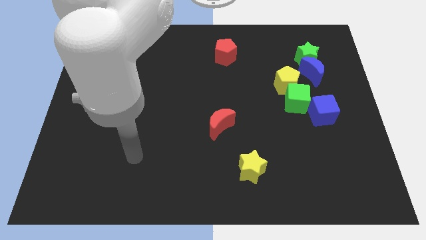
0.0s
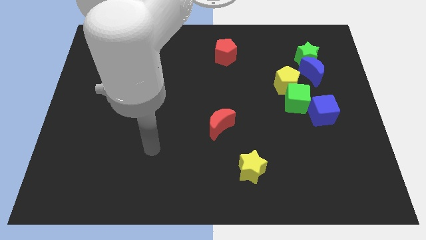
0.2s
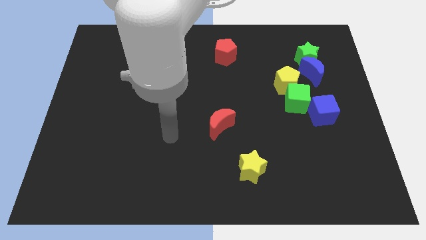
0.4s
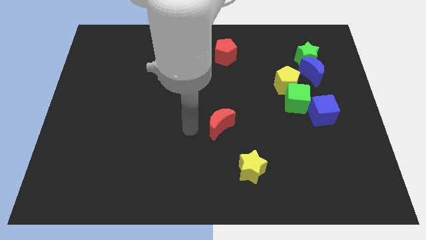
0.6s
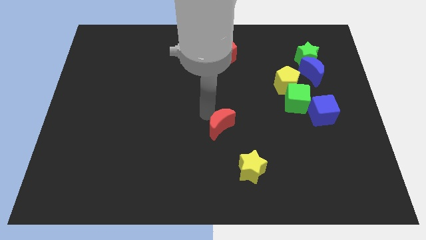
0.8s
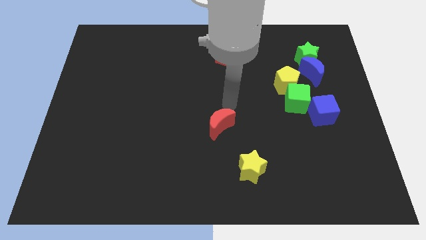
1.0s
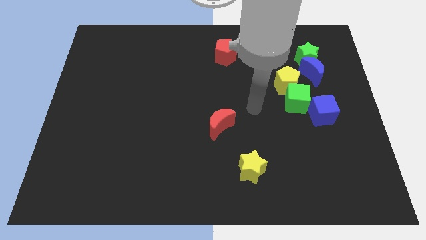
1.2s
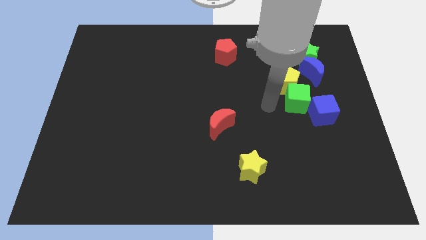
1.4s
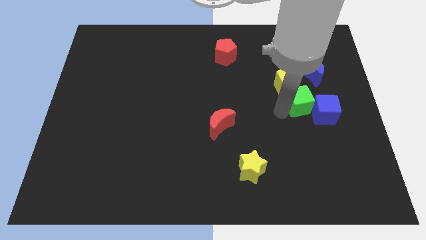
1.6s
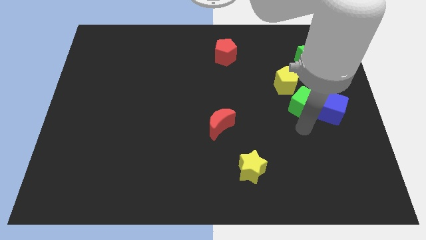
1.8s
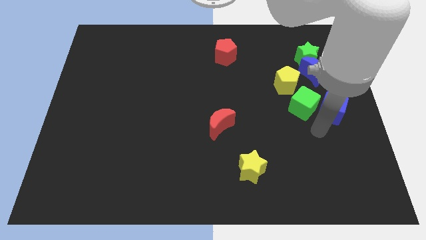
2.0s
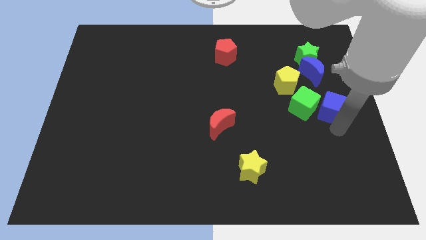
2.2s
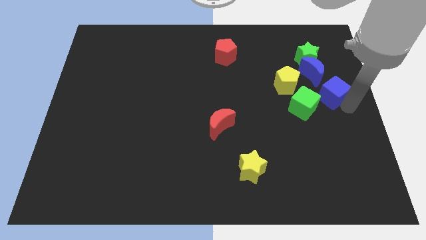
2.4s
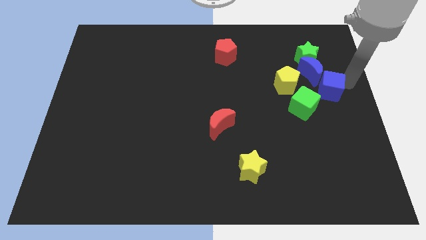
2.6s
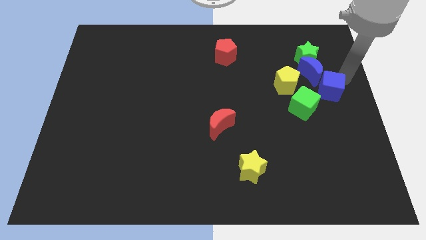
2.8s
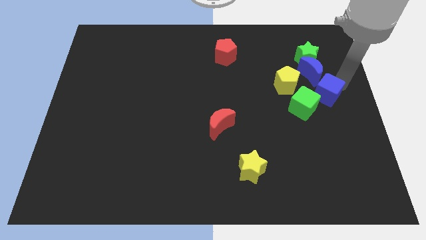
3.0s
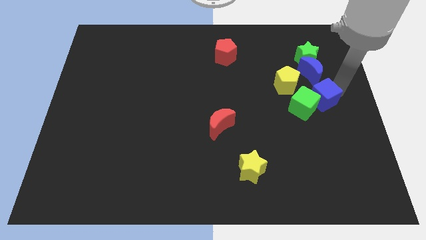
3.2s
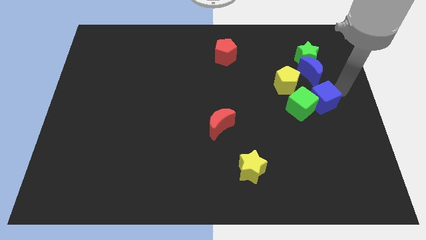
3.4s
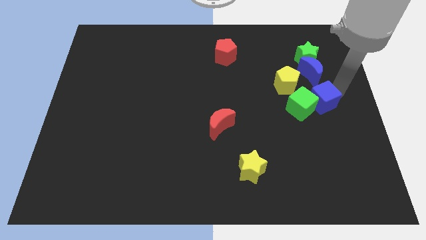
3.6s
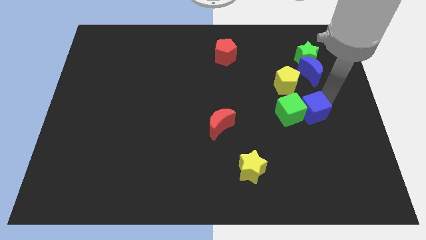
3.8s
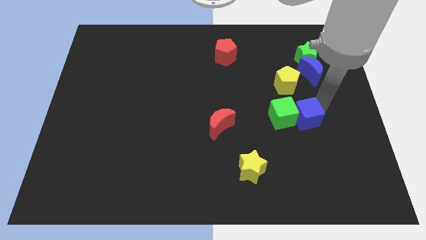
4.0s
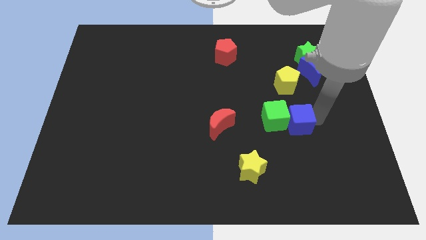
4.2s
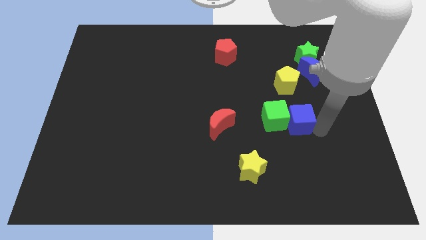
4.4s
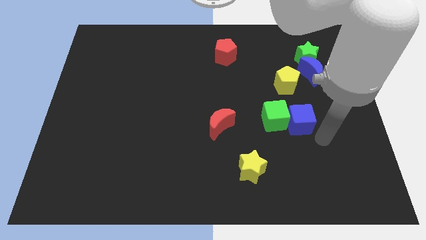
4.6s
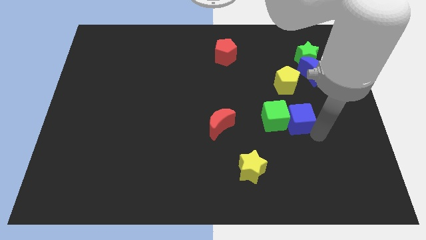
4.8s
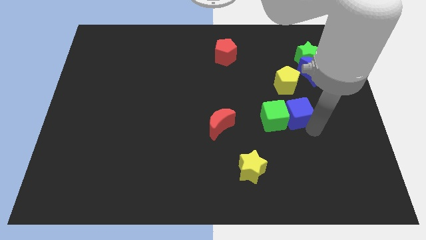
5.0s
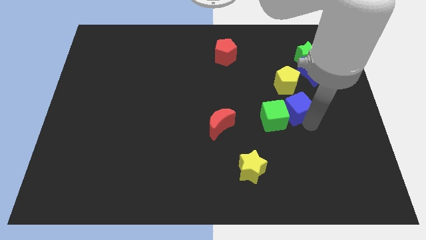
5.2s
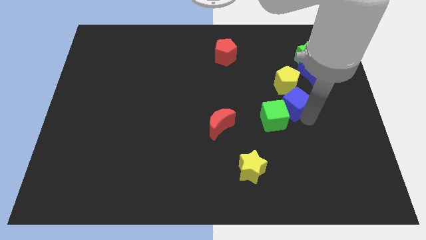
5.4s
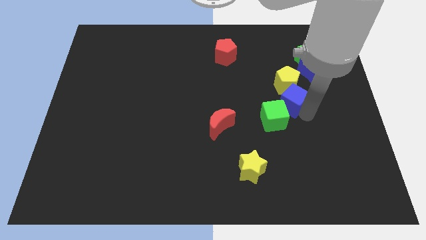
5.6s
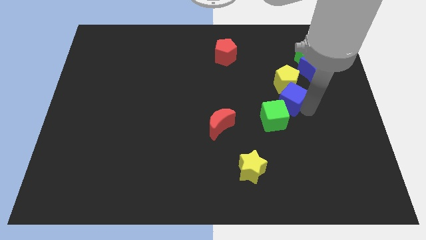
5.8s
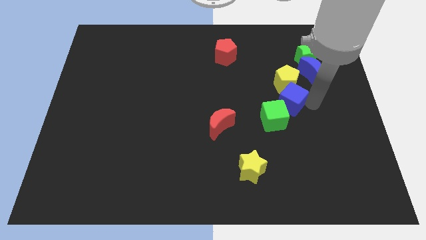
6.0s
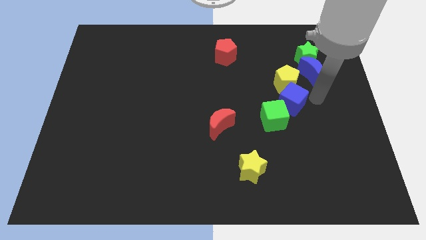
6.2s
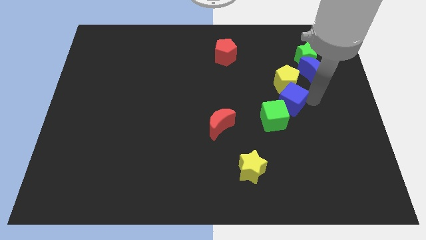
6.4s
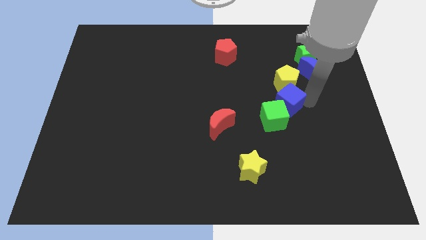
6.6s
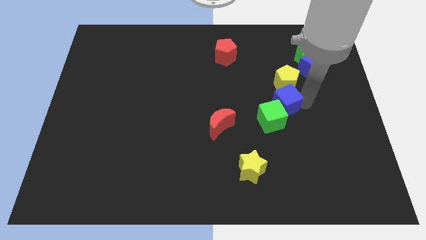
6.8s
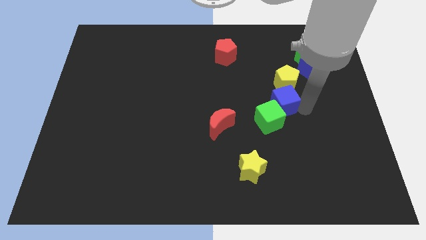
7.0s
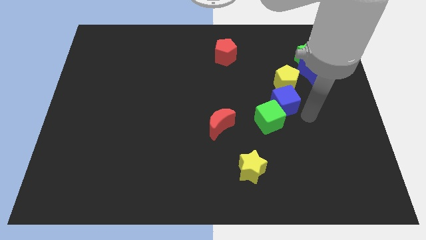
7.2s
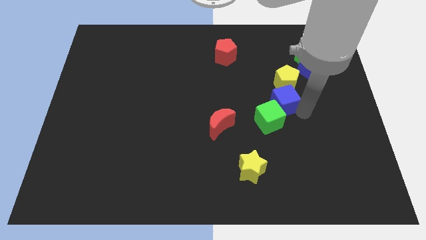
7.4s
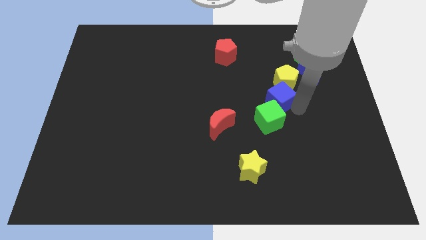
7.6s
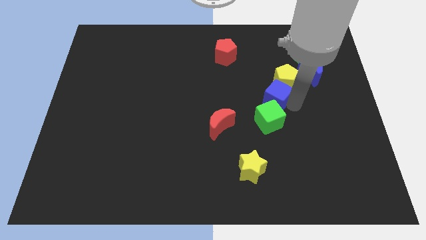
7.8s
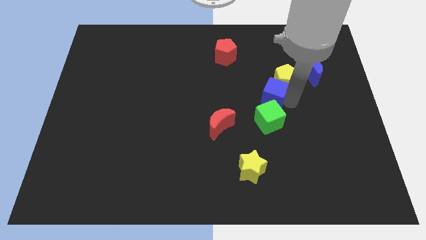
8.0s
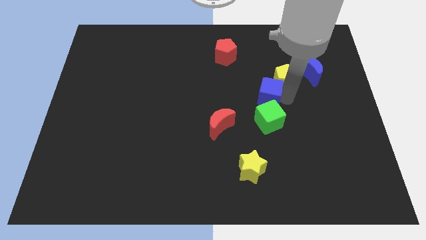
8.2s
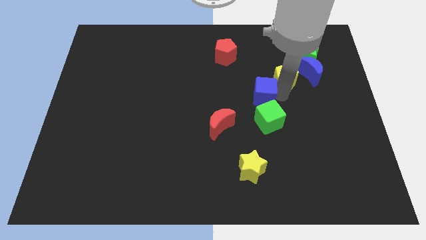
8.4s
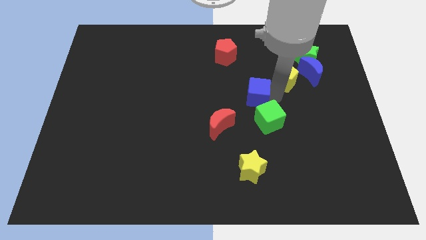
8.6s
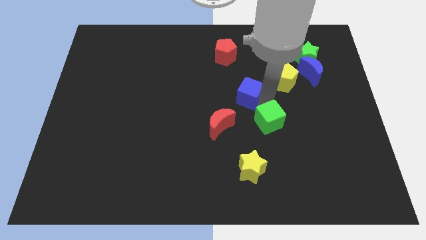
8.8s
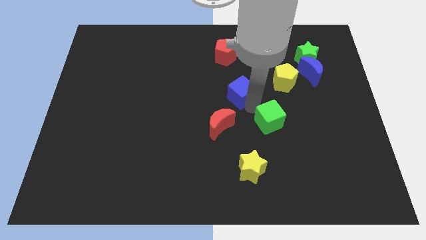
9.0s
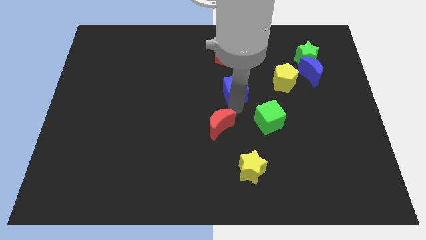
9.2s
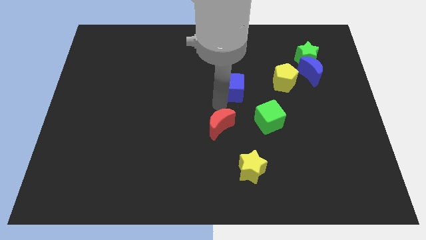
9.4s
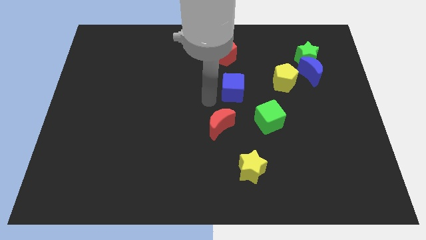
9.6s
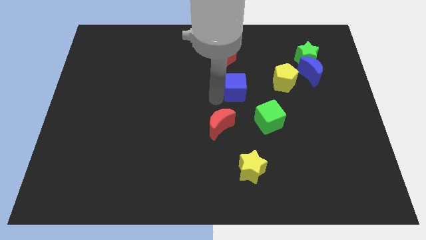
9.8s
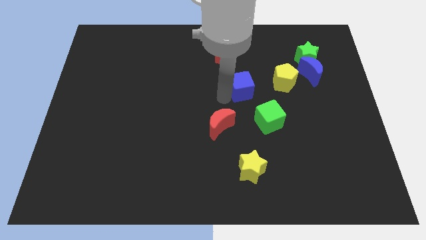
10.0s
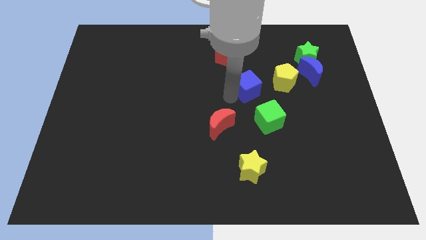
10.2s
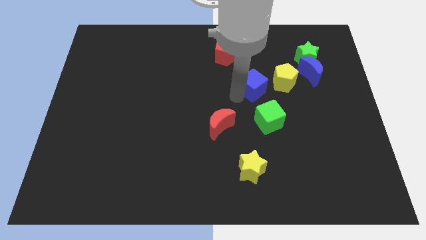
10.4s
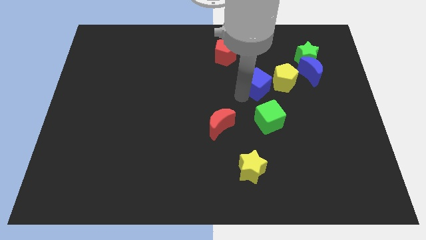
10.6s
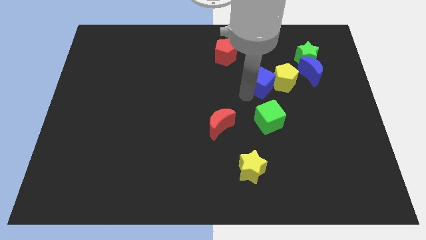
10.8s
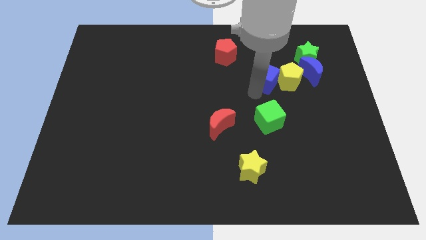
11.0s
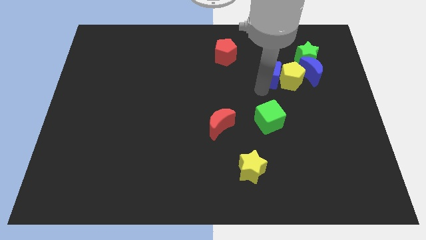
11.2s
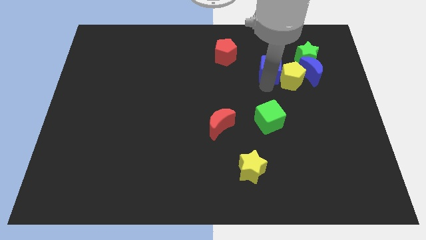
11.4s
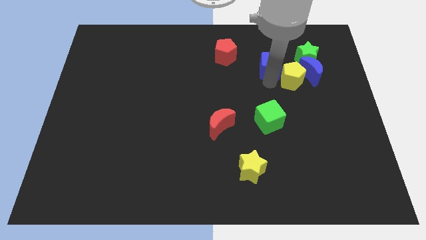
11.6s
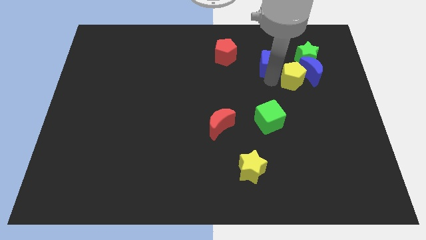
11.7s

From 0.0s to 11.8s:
move the blue cube right of the red pentagon

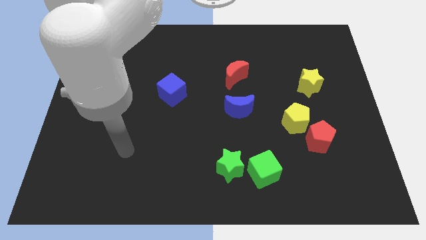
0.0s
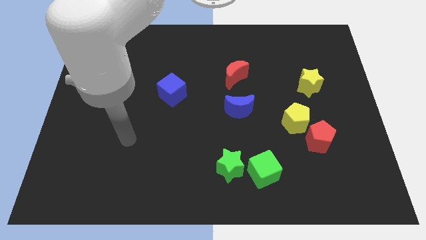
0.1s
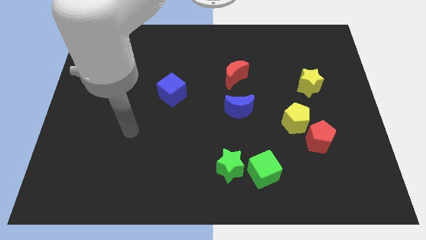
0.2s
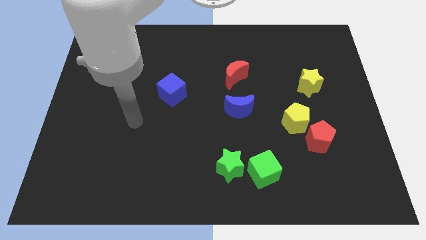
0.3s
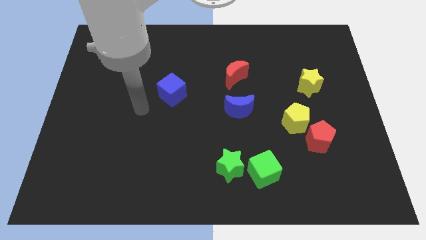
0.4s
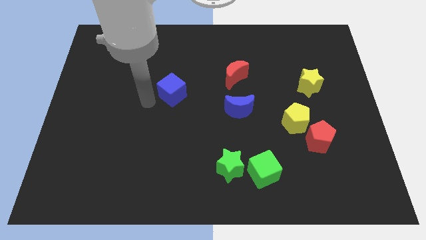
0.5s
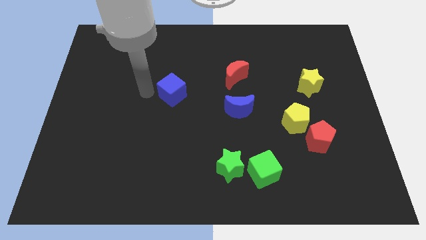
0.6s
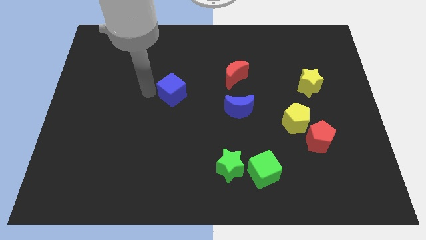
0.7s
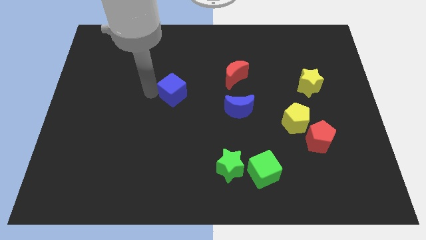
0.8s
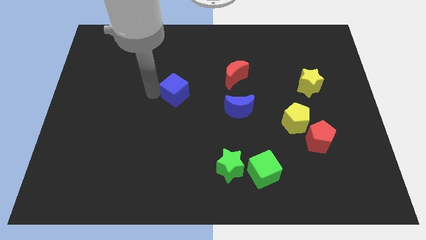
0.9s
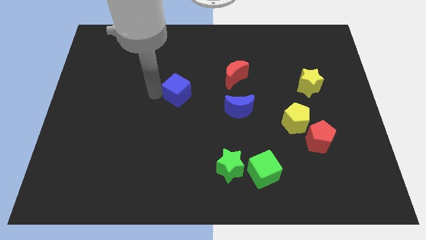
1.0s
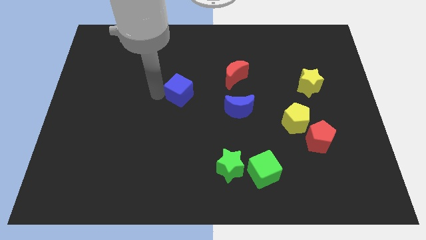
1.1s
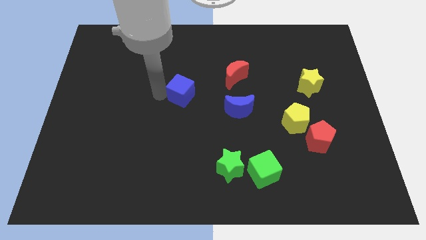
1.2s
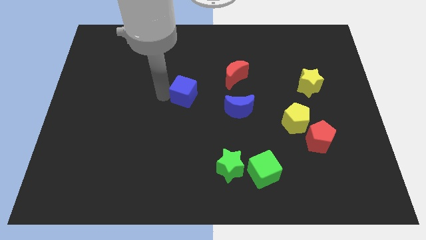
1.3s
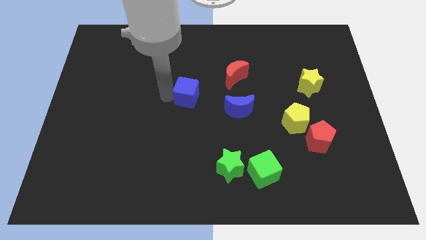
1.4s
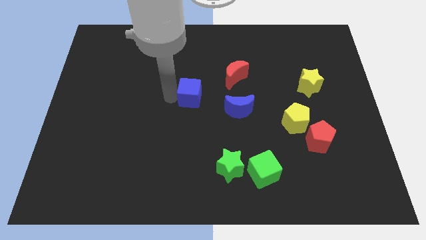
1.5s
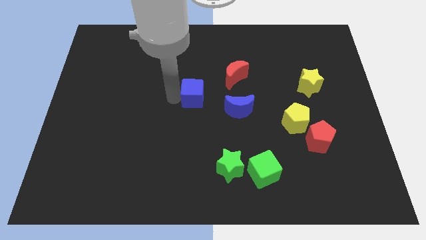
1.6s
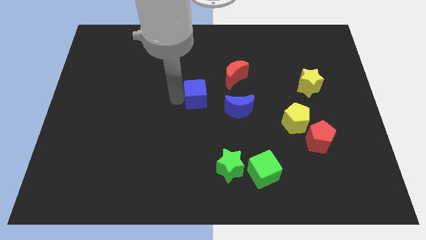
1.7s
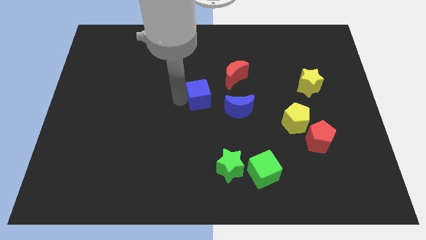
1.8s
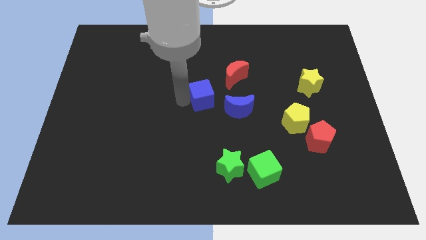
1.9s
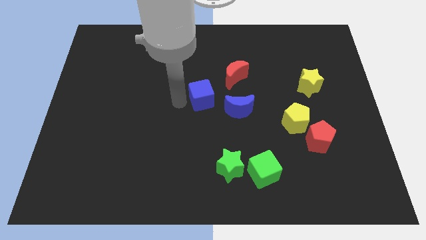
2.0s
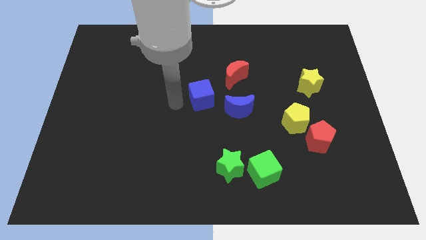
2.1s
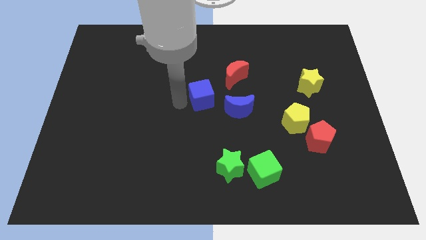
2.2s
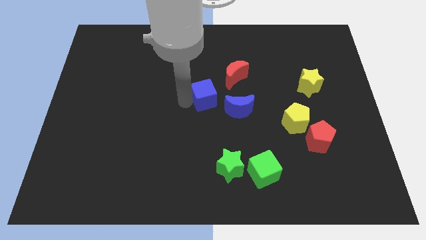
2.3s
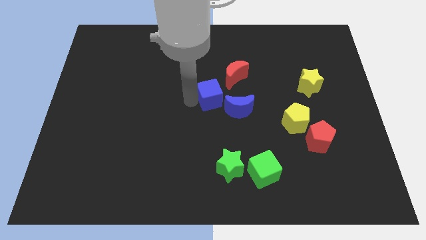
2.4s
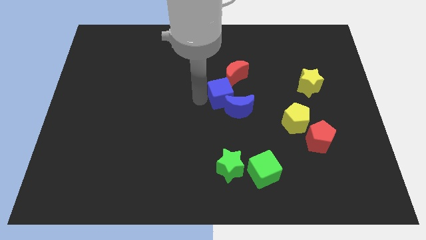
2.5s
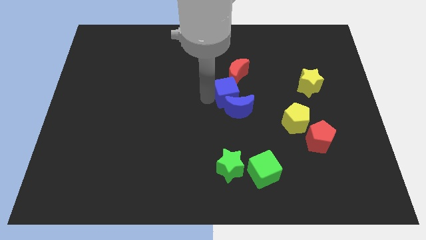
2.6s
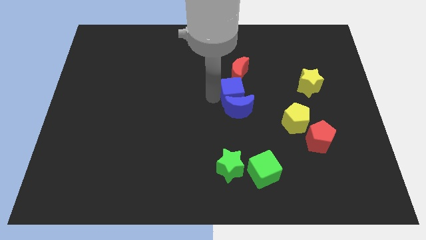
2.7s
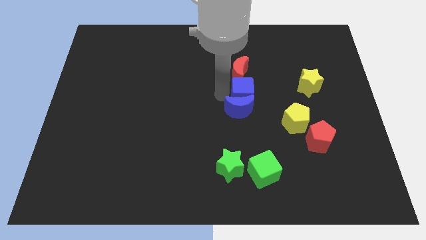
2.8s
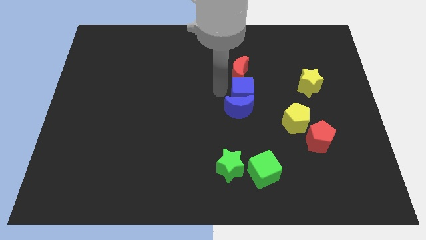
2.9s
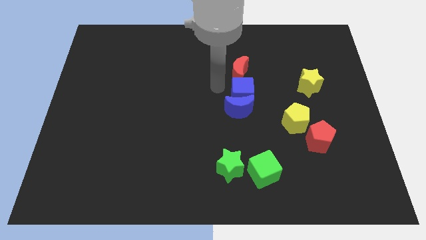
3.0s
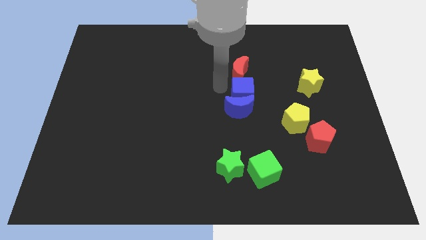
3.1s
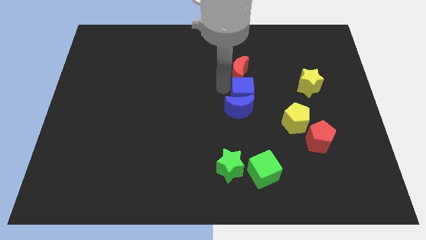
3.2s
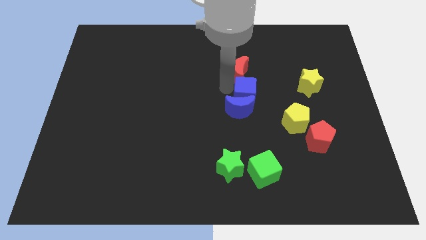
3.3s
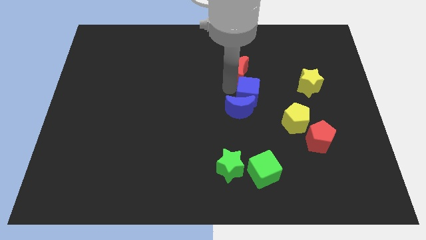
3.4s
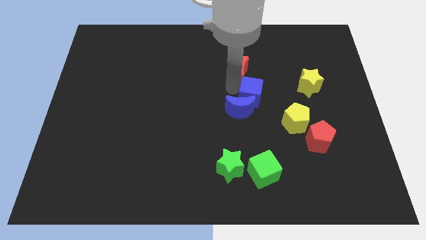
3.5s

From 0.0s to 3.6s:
push the blue cube diagonally up and to the left of the yellow pentagon
